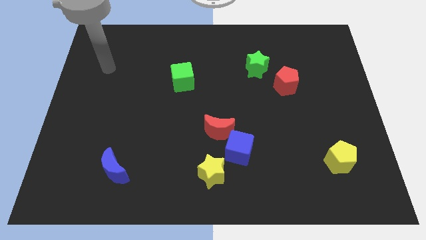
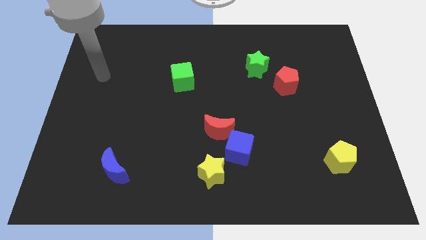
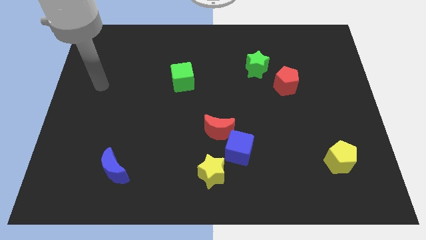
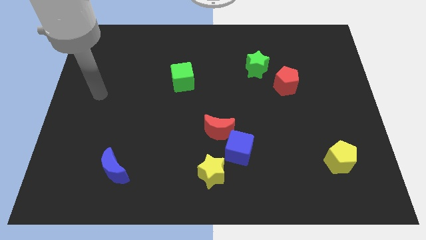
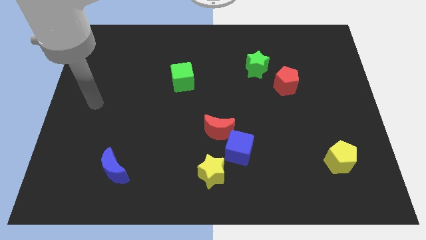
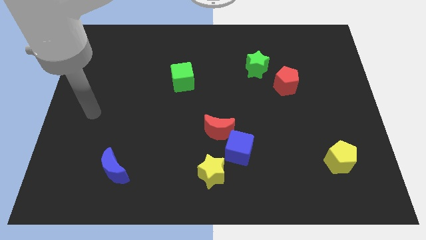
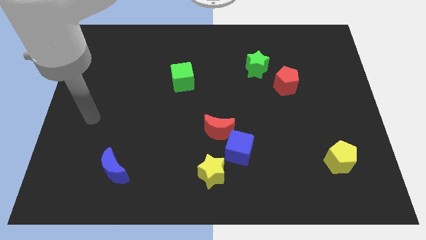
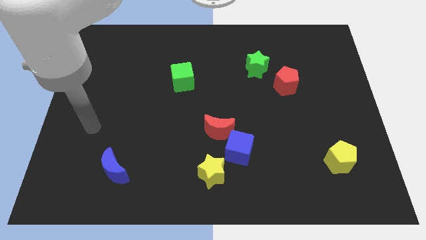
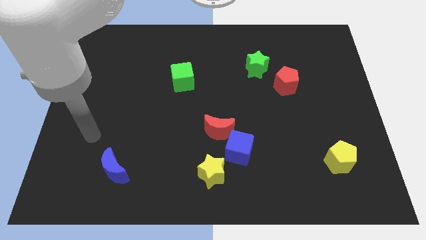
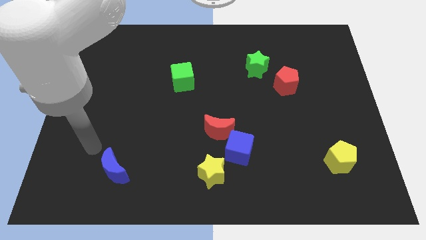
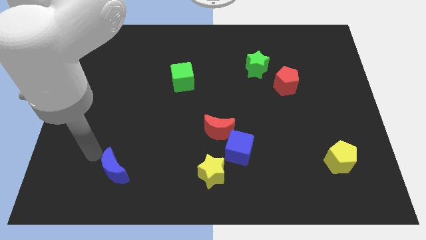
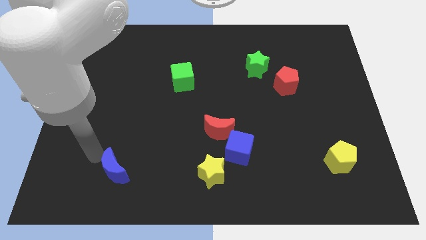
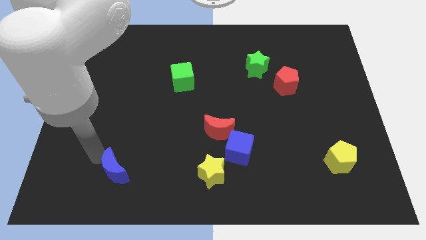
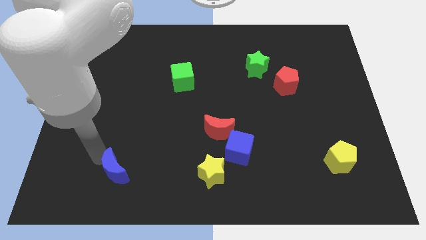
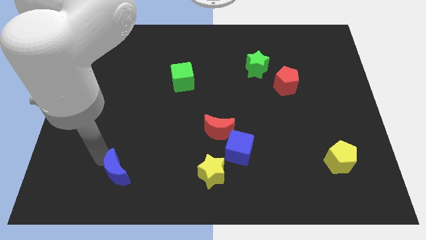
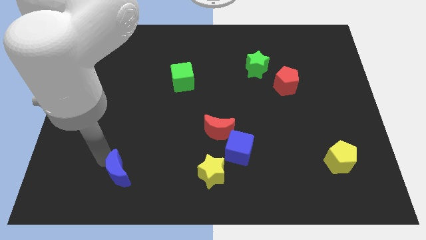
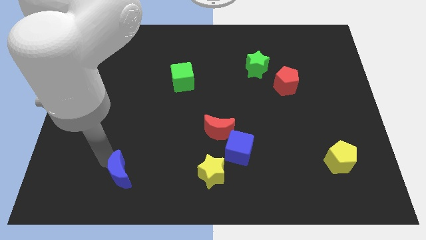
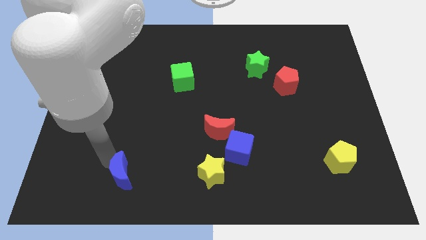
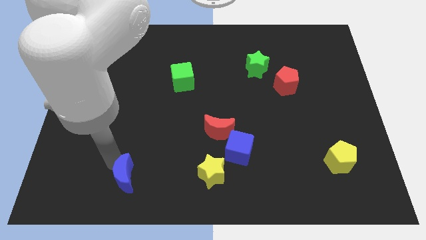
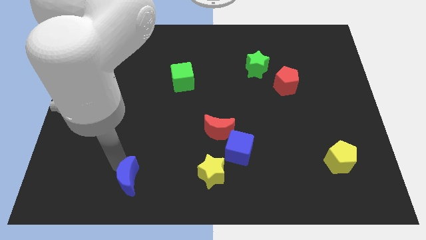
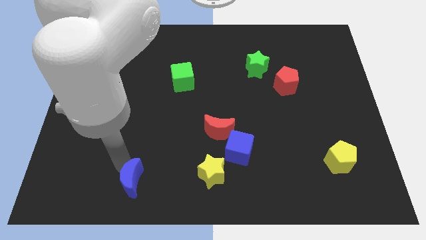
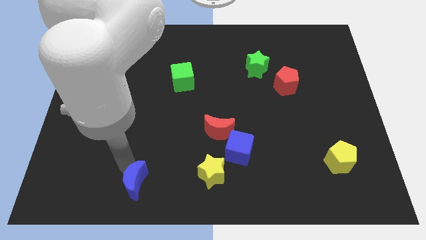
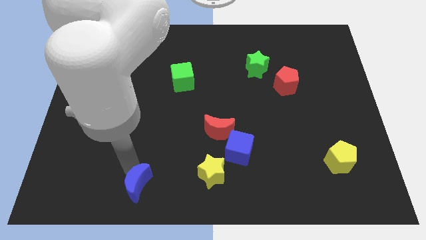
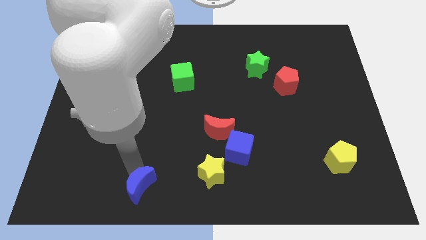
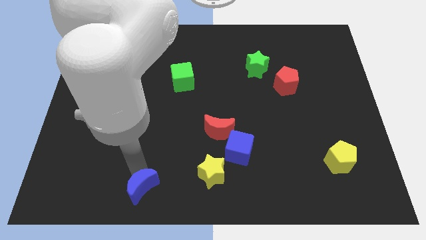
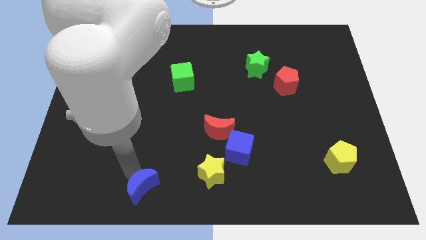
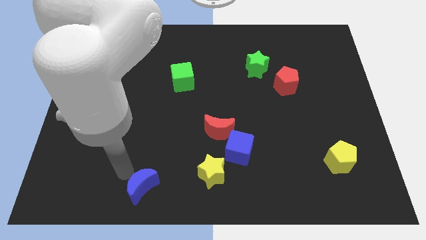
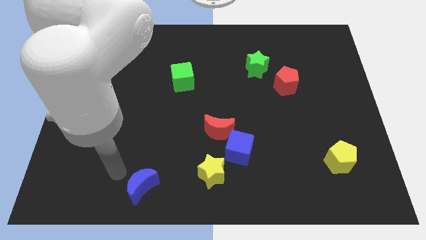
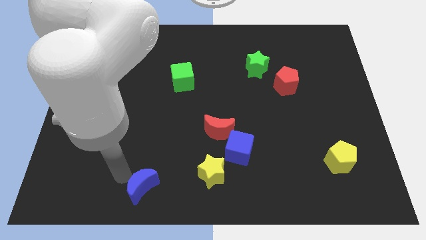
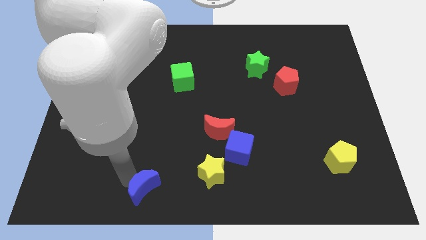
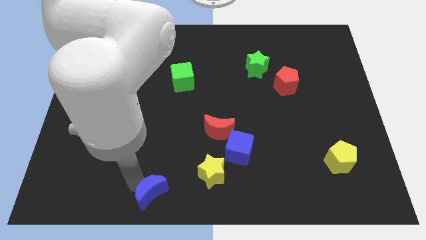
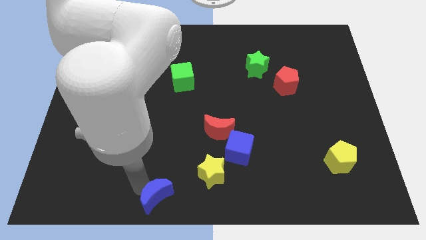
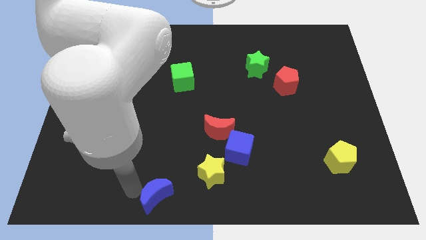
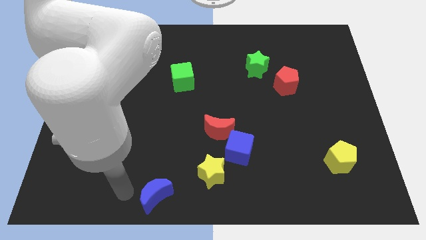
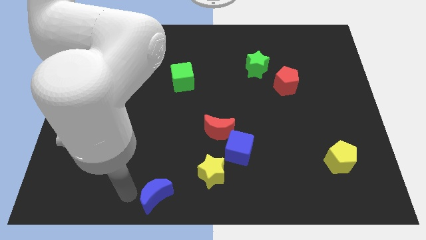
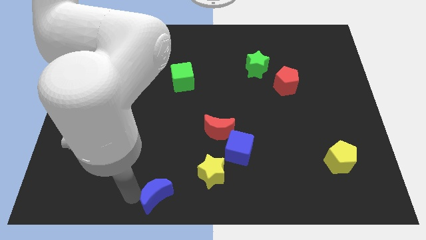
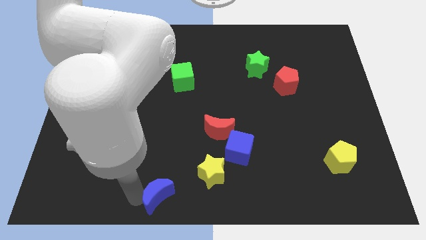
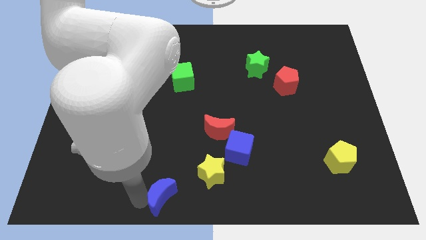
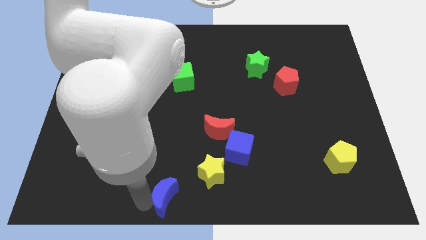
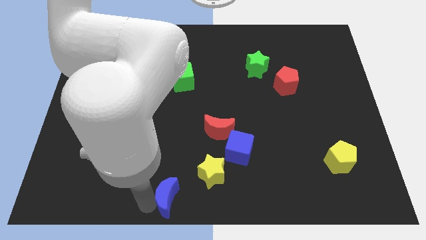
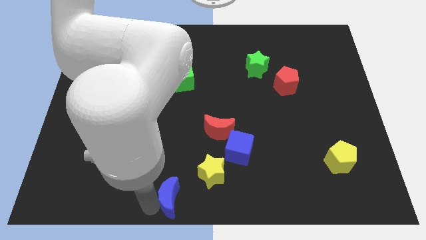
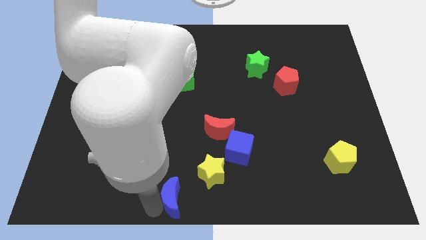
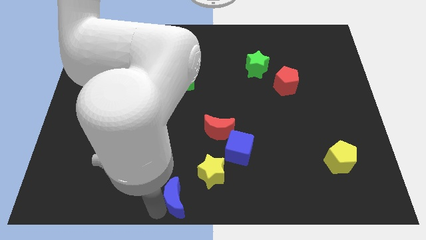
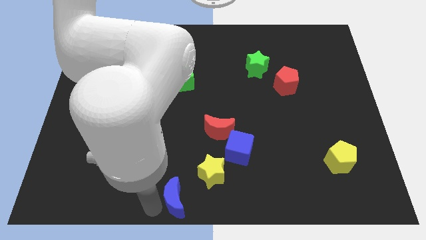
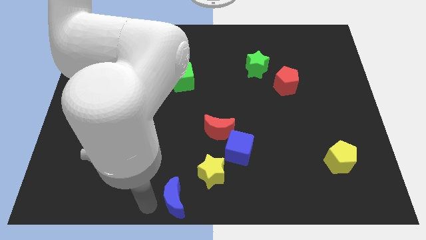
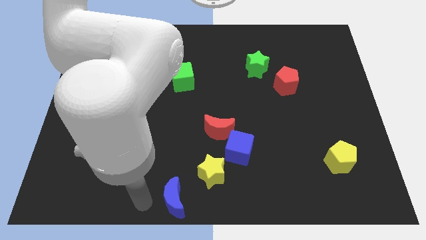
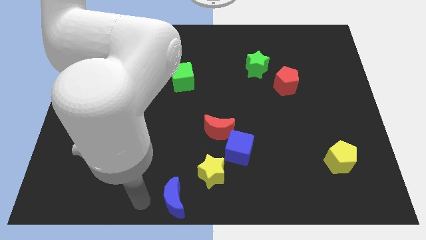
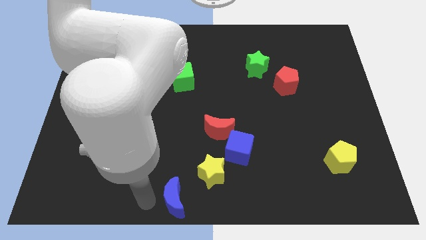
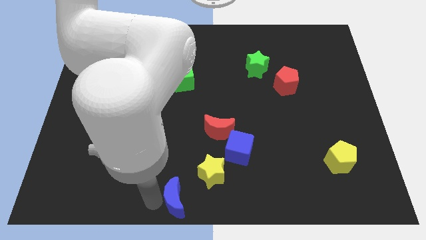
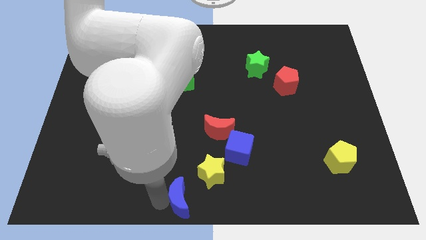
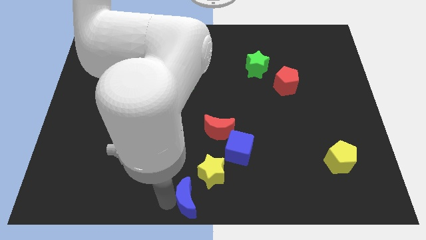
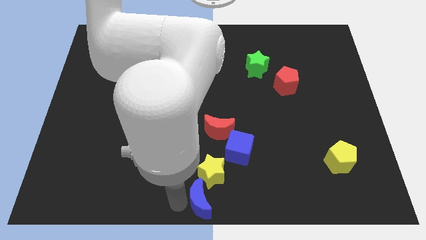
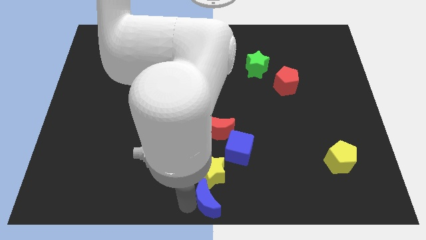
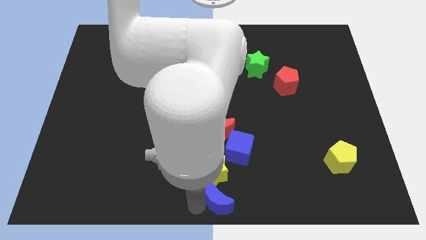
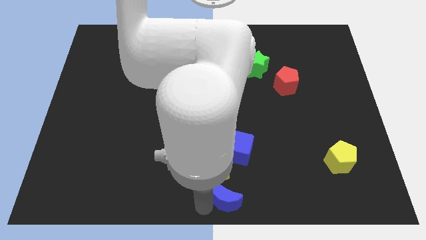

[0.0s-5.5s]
slide the blue moon to the right

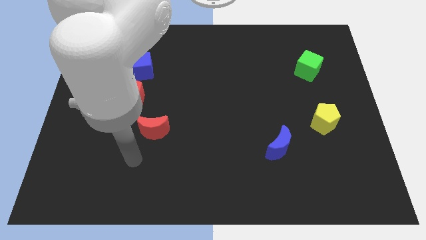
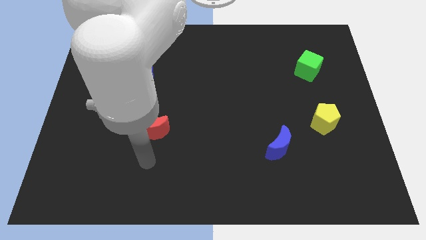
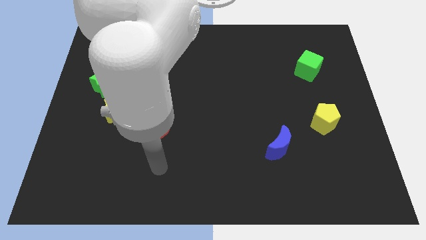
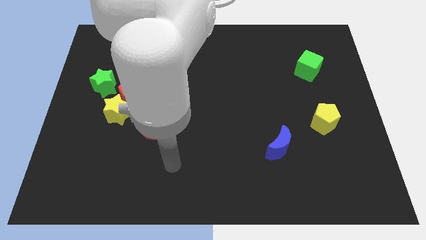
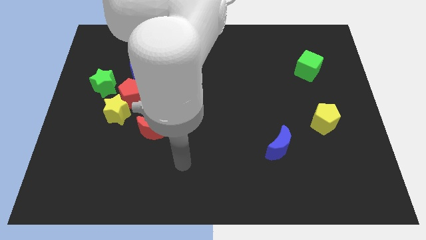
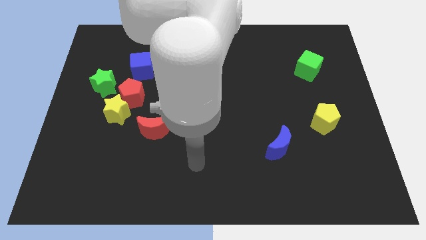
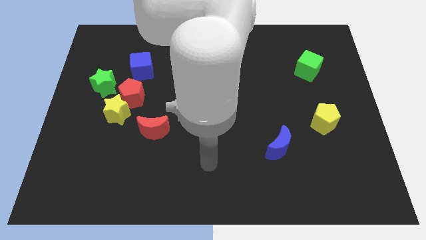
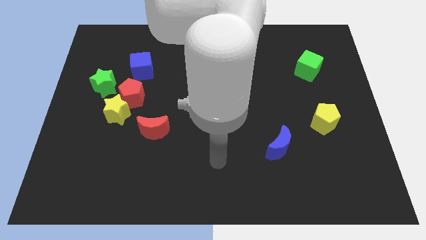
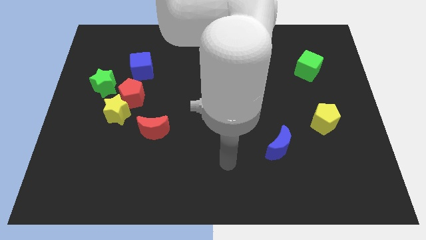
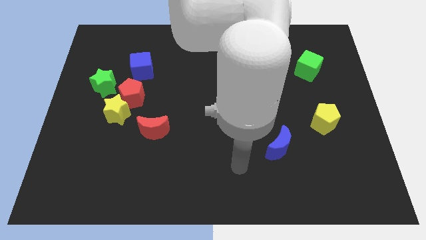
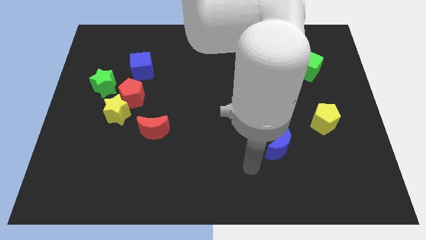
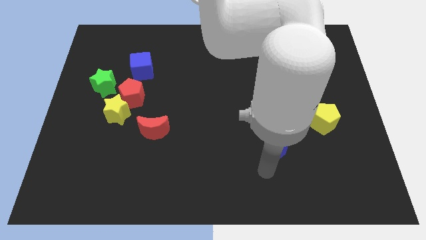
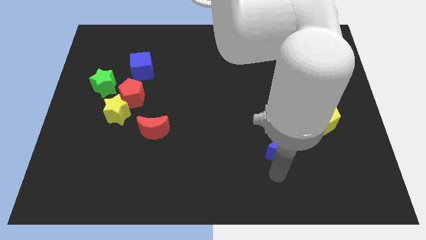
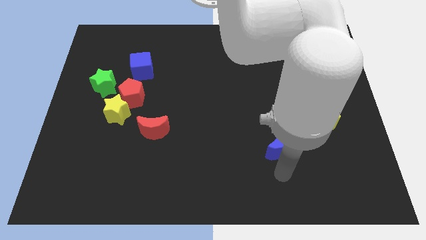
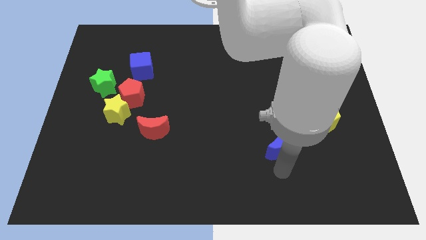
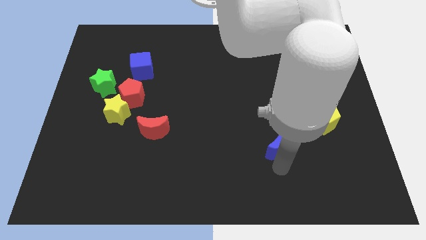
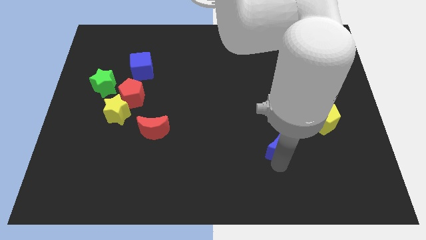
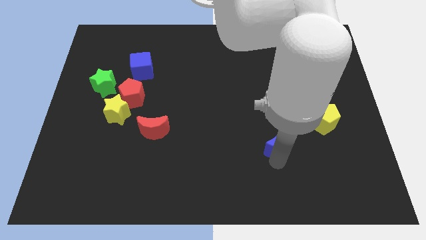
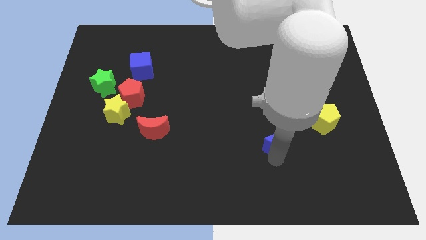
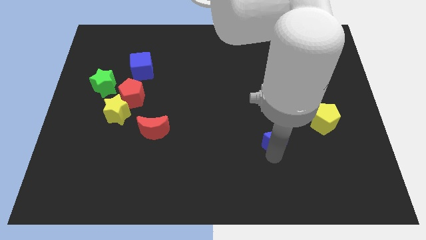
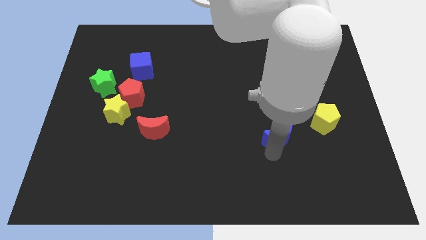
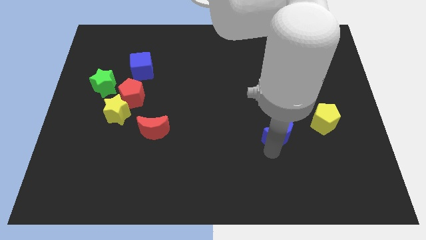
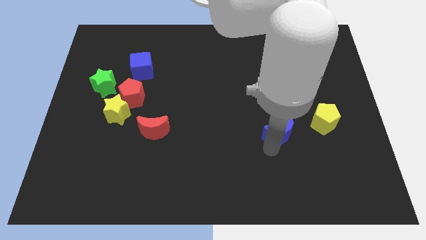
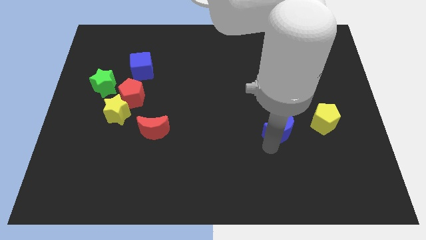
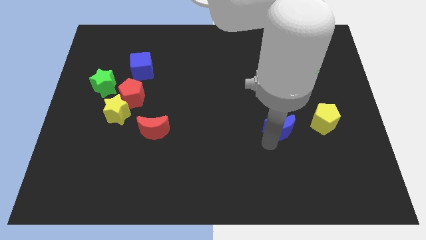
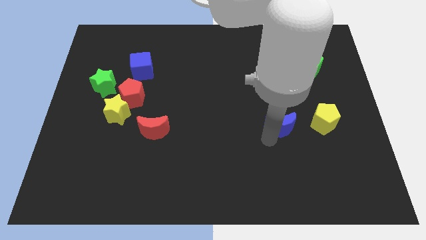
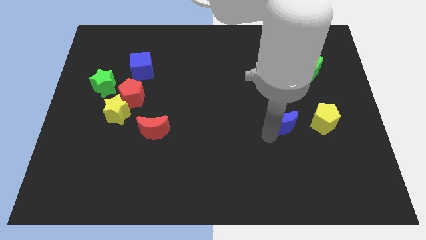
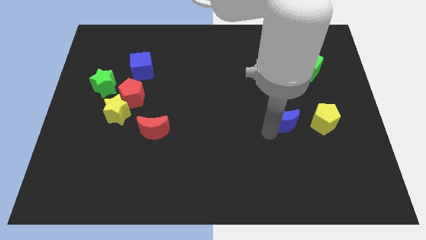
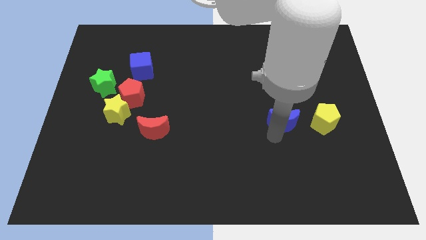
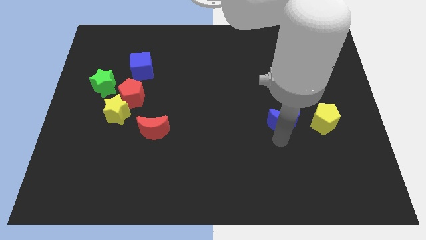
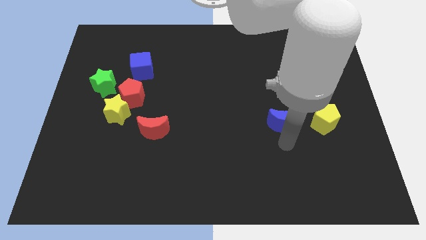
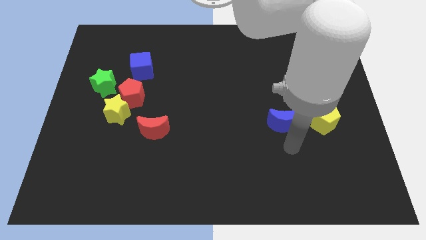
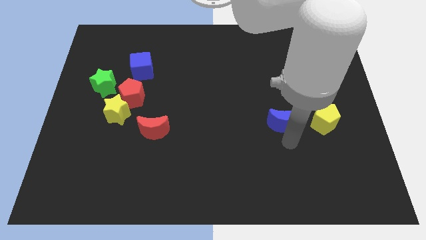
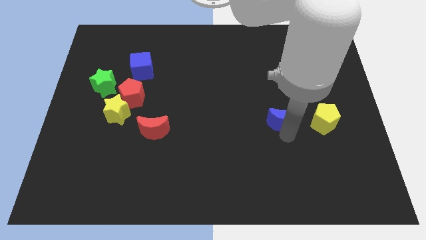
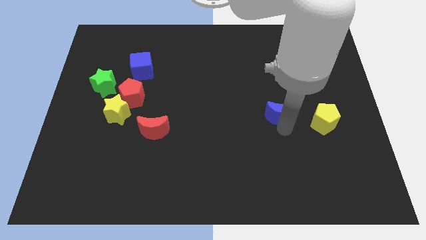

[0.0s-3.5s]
move the blue moon up somewhat
